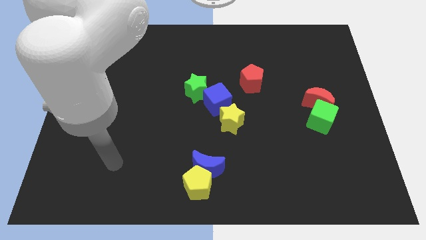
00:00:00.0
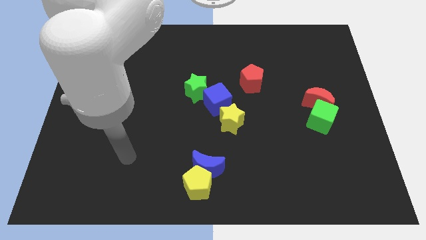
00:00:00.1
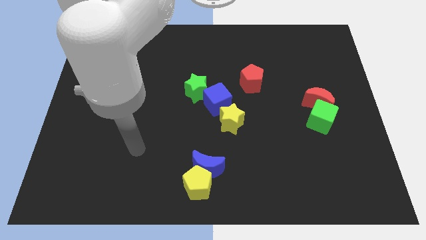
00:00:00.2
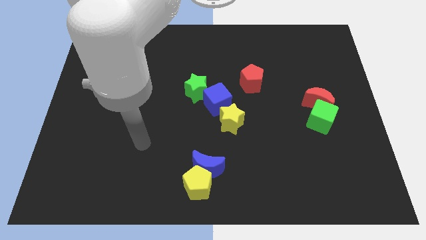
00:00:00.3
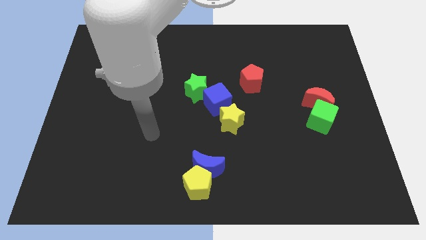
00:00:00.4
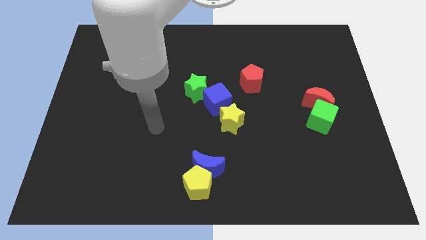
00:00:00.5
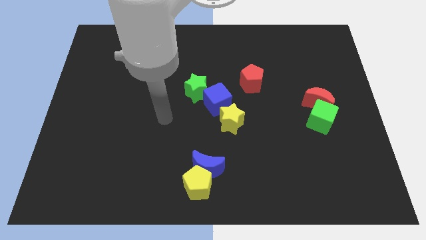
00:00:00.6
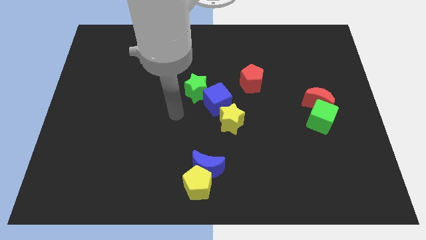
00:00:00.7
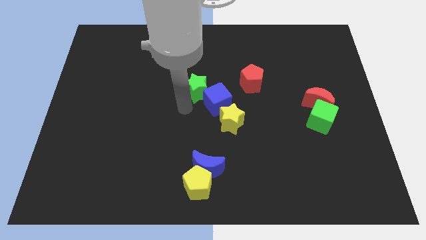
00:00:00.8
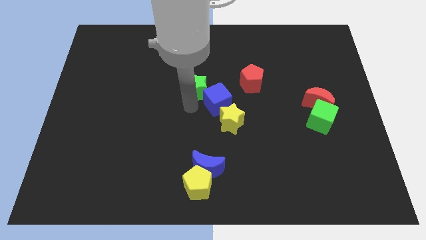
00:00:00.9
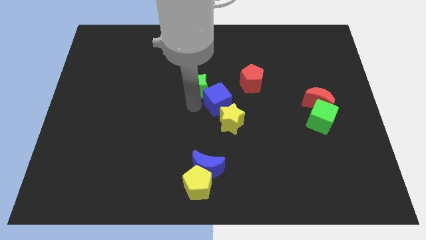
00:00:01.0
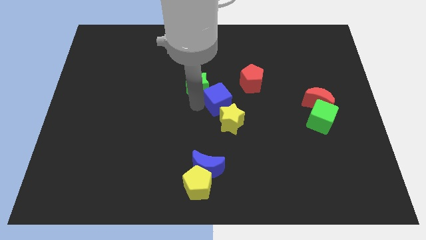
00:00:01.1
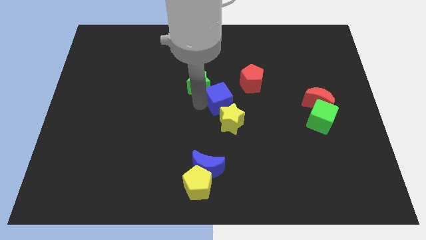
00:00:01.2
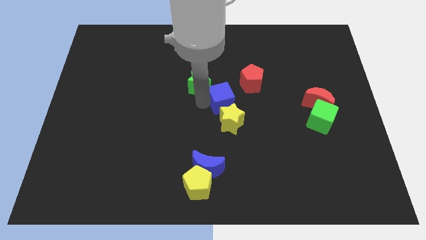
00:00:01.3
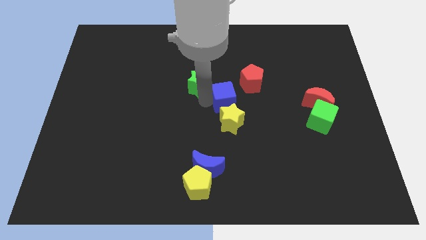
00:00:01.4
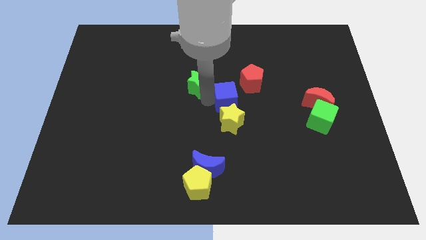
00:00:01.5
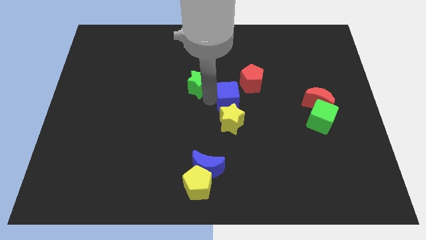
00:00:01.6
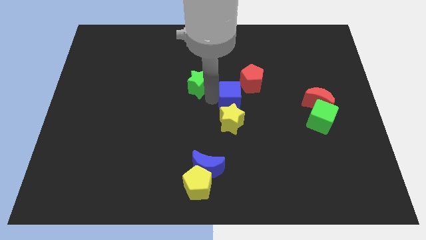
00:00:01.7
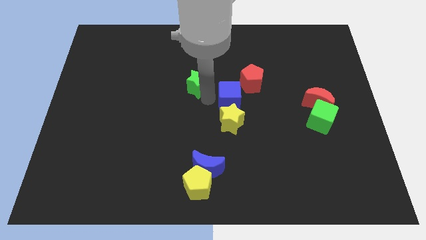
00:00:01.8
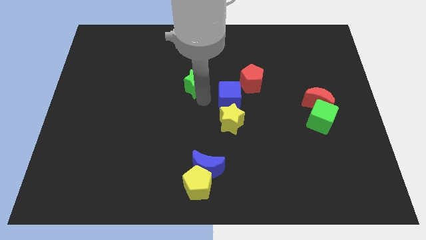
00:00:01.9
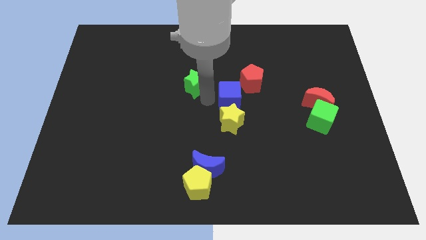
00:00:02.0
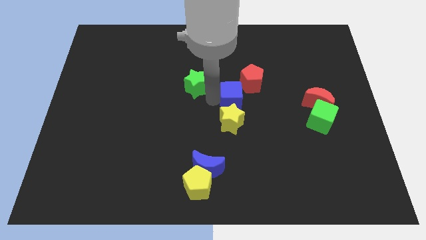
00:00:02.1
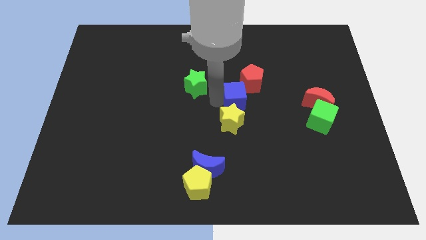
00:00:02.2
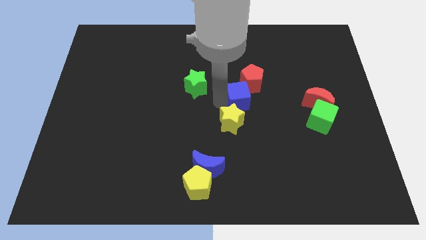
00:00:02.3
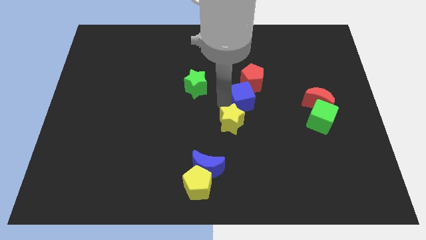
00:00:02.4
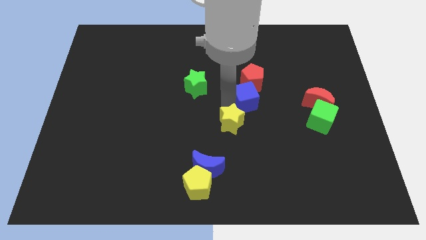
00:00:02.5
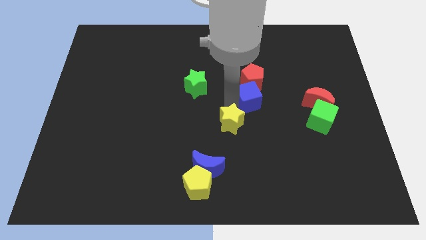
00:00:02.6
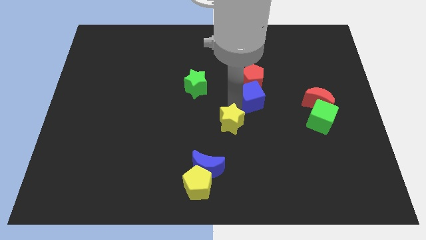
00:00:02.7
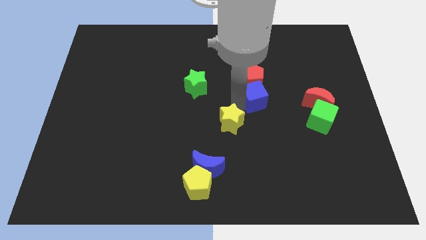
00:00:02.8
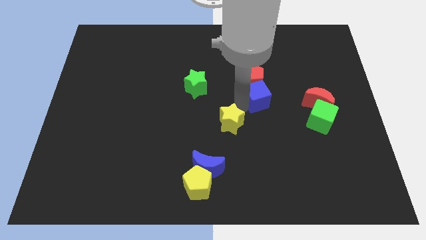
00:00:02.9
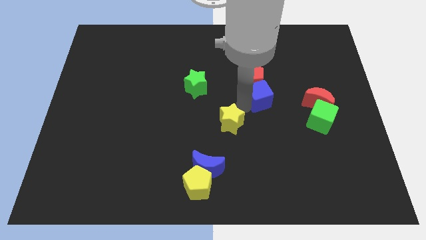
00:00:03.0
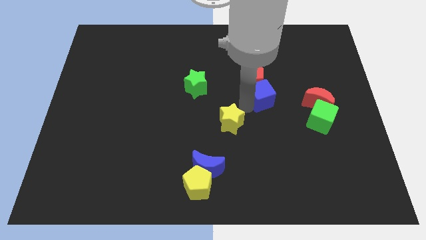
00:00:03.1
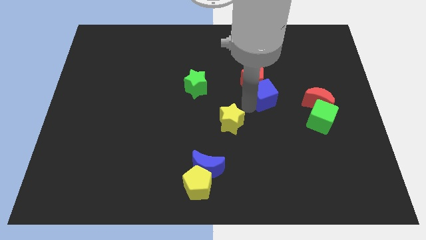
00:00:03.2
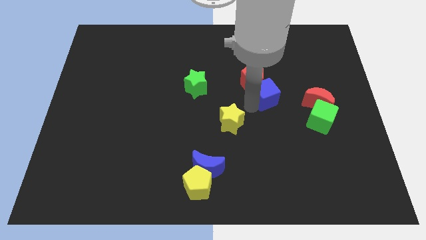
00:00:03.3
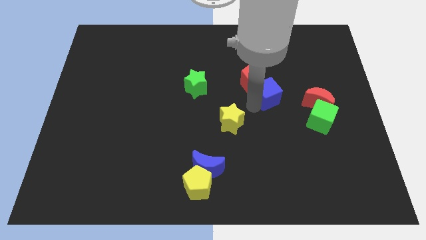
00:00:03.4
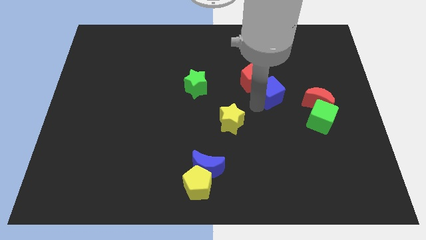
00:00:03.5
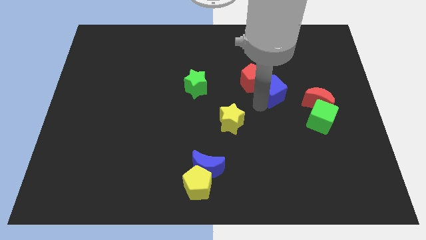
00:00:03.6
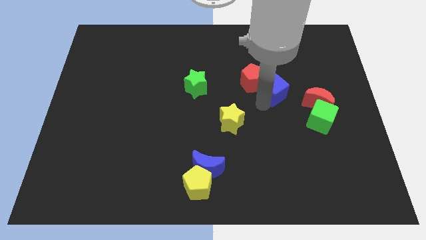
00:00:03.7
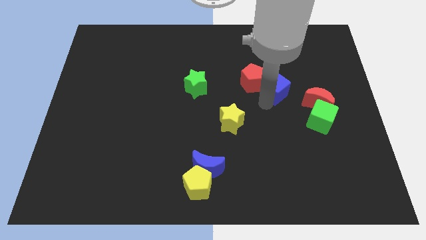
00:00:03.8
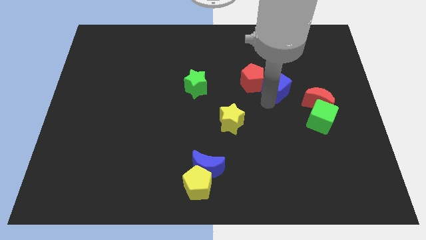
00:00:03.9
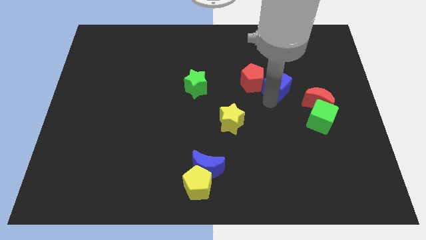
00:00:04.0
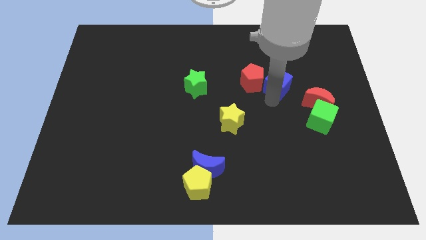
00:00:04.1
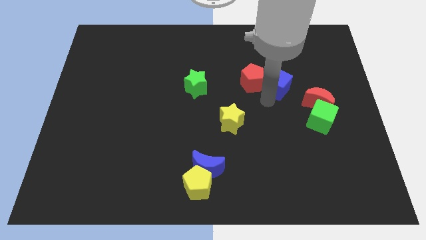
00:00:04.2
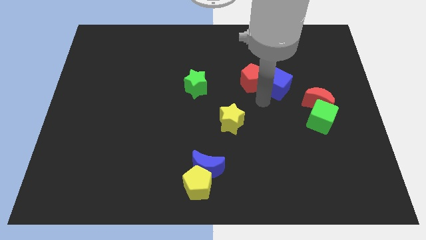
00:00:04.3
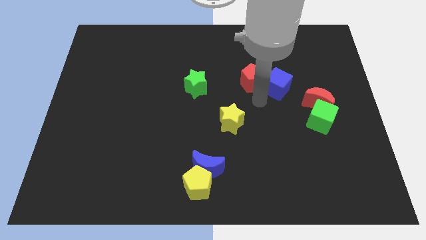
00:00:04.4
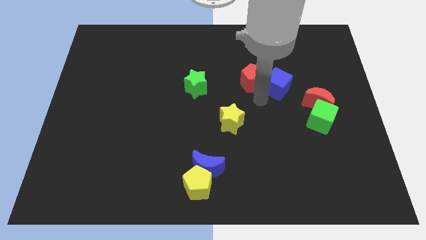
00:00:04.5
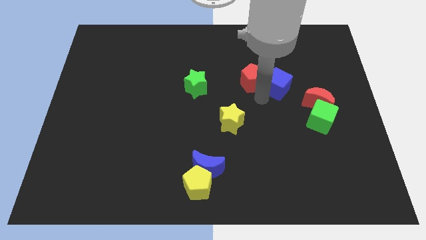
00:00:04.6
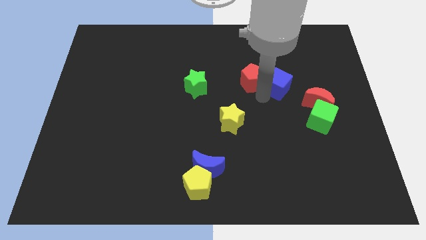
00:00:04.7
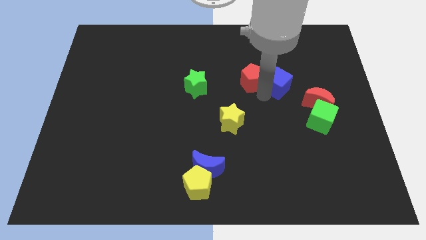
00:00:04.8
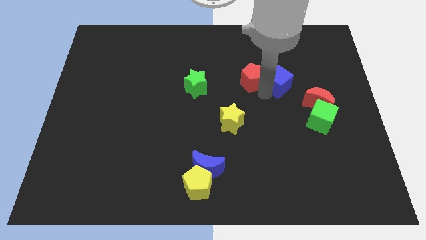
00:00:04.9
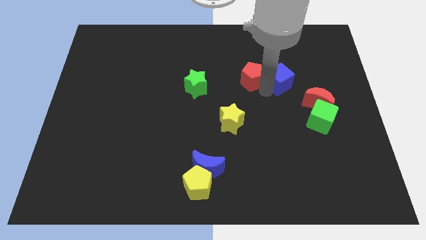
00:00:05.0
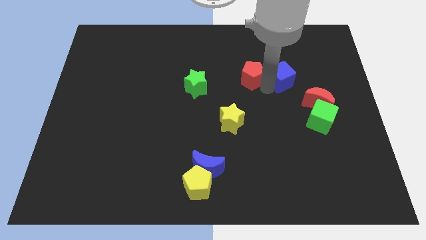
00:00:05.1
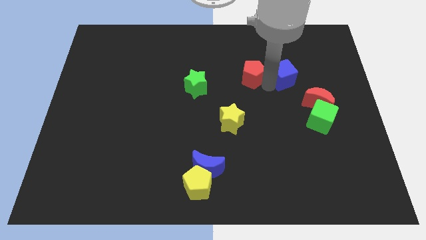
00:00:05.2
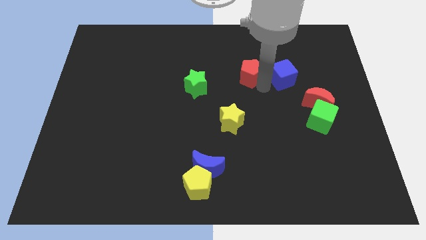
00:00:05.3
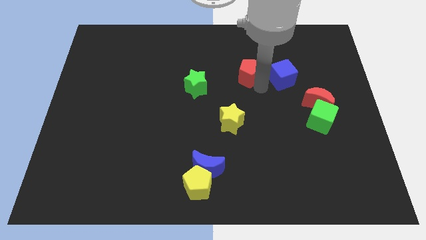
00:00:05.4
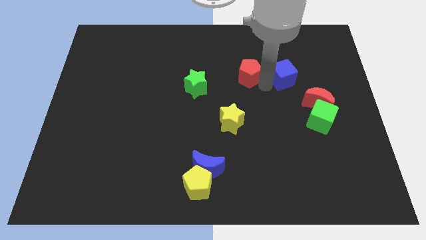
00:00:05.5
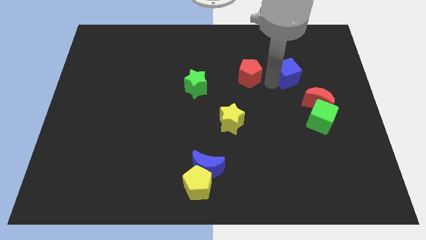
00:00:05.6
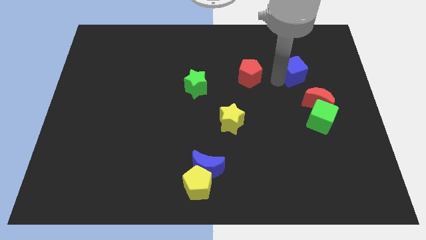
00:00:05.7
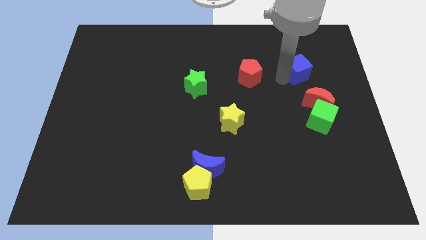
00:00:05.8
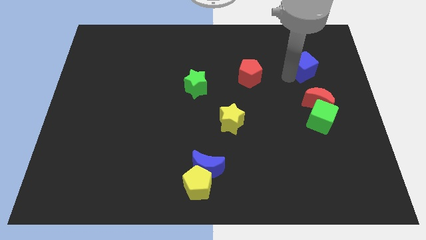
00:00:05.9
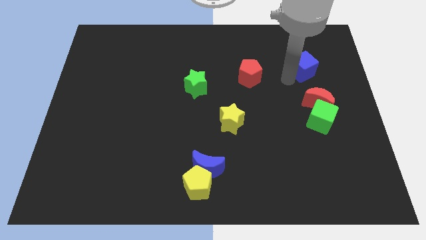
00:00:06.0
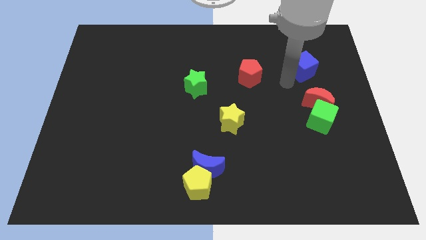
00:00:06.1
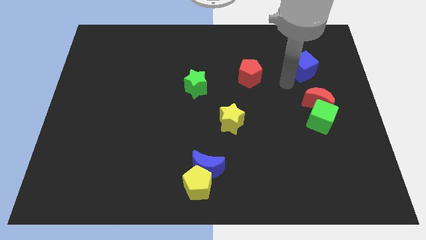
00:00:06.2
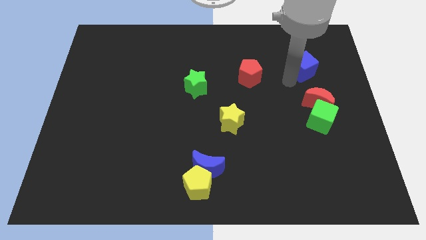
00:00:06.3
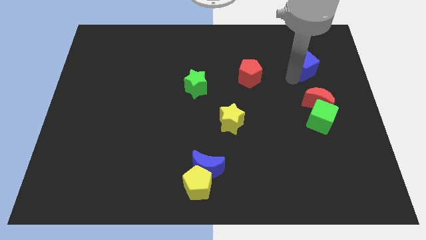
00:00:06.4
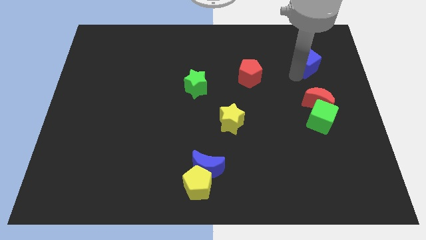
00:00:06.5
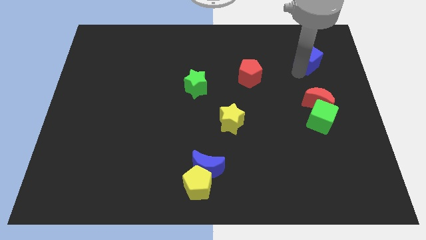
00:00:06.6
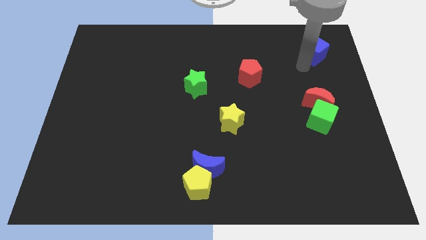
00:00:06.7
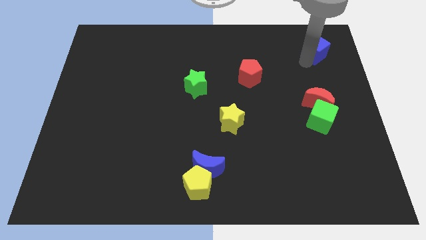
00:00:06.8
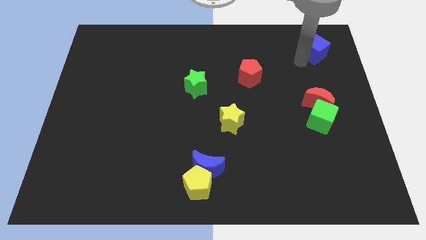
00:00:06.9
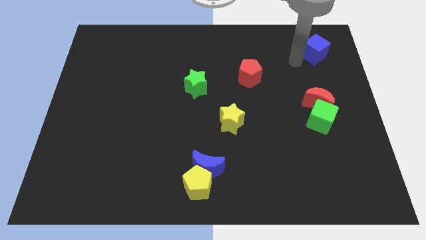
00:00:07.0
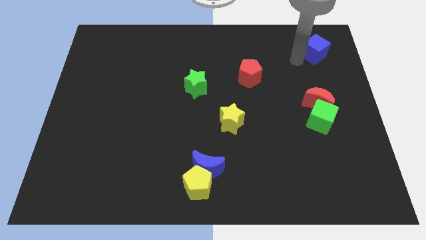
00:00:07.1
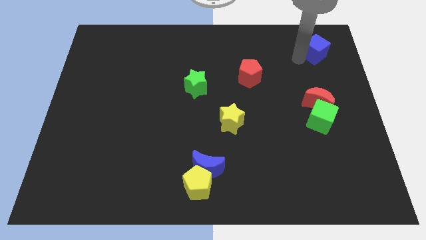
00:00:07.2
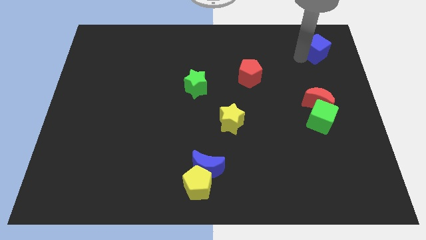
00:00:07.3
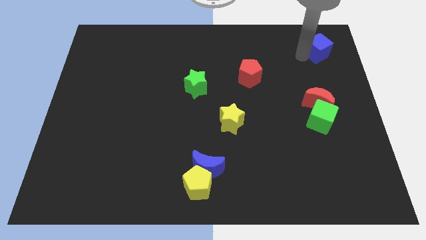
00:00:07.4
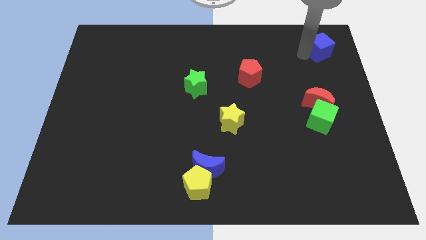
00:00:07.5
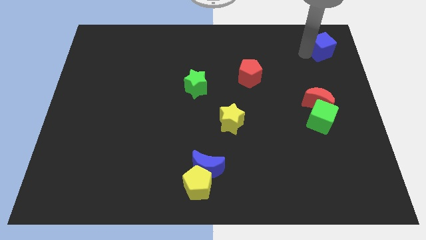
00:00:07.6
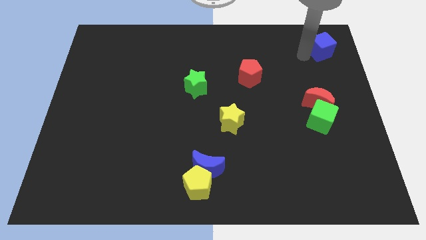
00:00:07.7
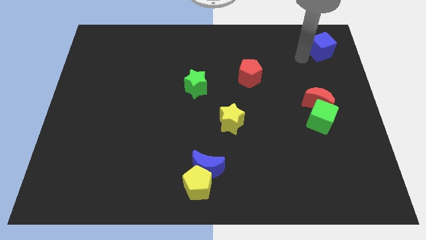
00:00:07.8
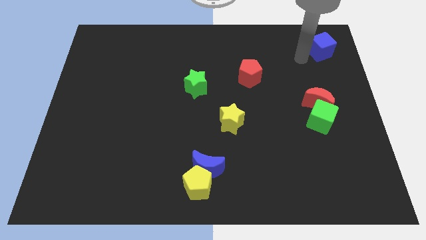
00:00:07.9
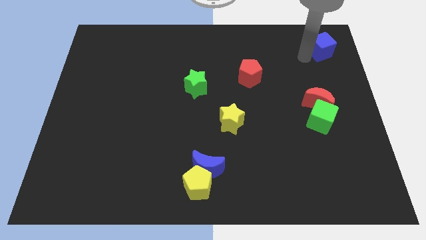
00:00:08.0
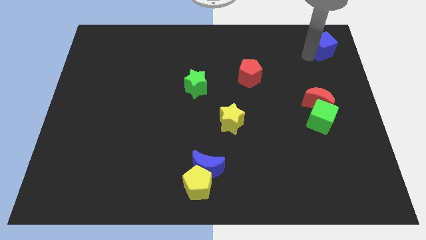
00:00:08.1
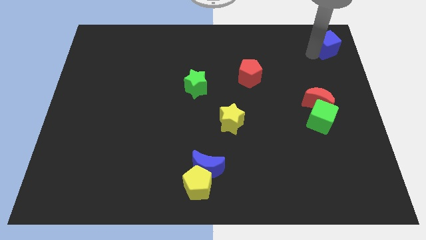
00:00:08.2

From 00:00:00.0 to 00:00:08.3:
move the blue cube to the top right of the board
